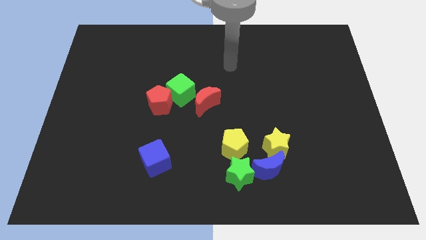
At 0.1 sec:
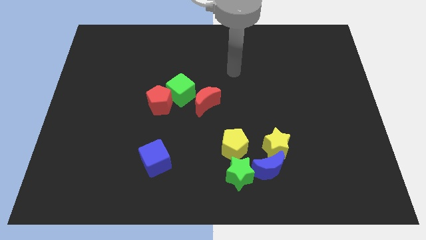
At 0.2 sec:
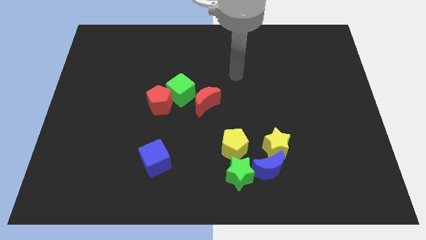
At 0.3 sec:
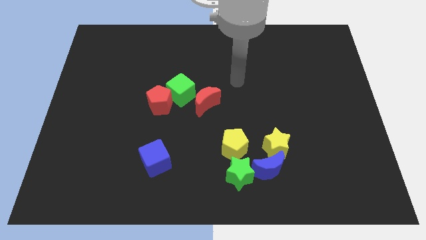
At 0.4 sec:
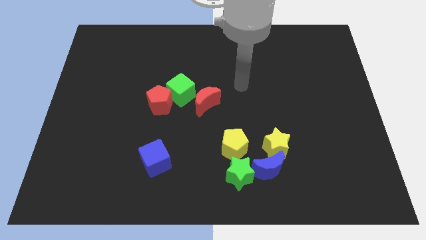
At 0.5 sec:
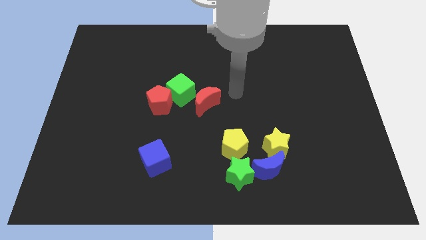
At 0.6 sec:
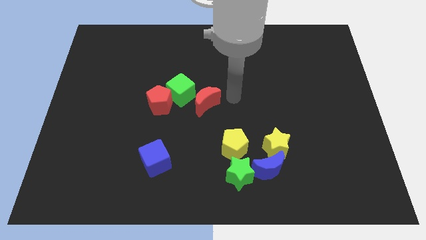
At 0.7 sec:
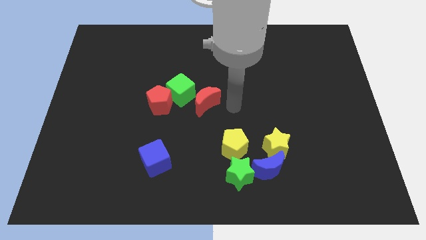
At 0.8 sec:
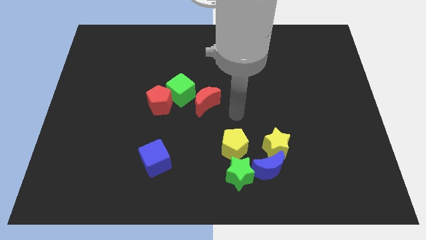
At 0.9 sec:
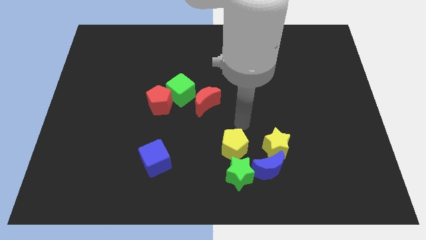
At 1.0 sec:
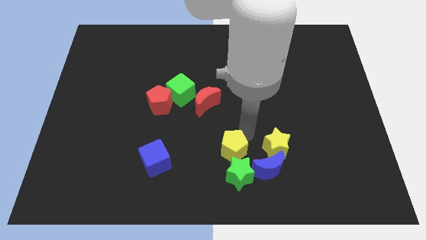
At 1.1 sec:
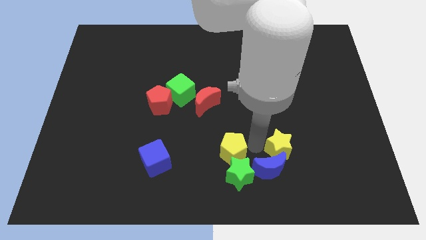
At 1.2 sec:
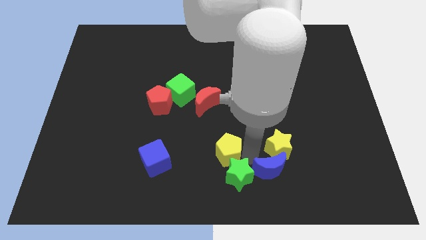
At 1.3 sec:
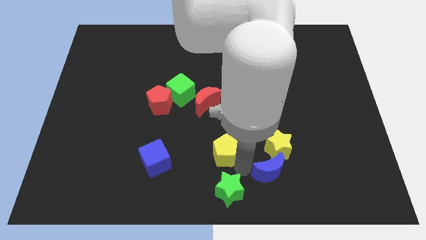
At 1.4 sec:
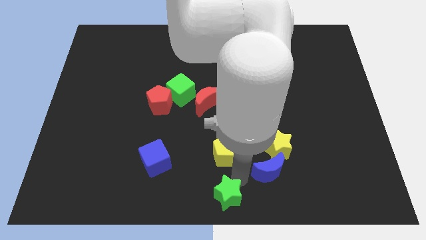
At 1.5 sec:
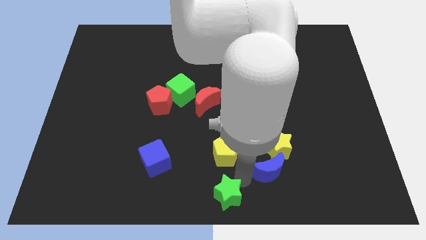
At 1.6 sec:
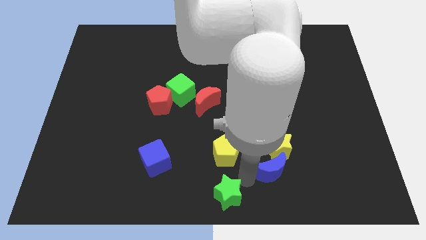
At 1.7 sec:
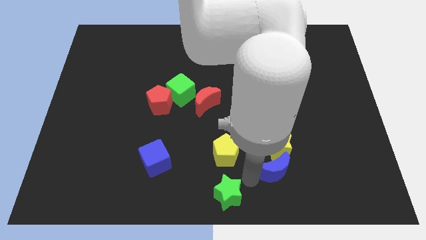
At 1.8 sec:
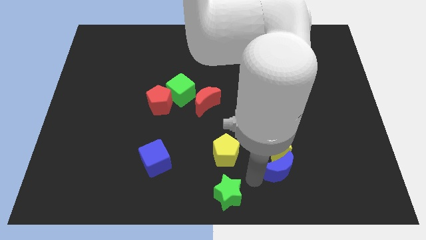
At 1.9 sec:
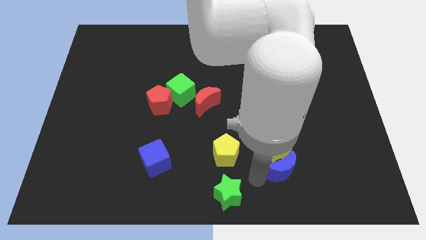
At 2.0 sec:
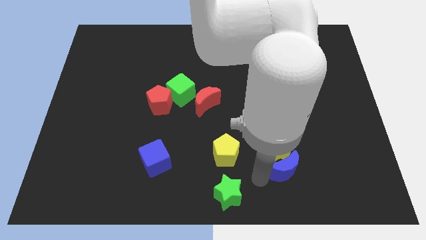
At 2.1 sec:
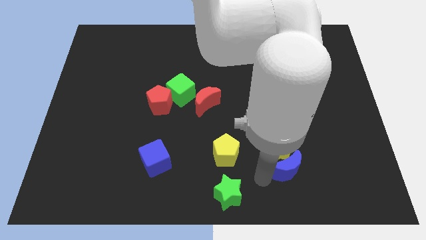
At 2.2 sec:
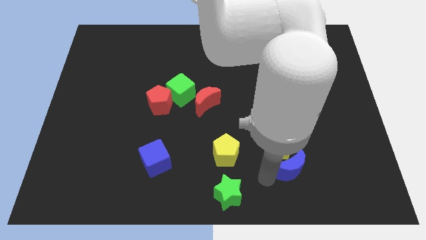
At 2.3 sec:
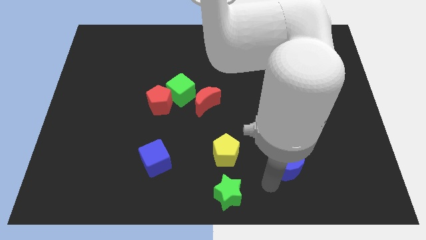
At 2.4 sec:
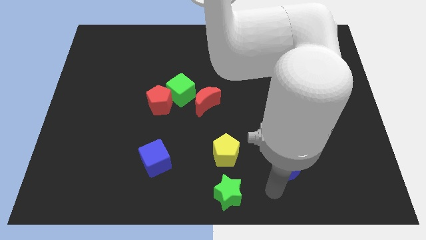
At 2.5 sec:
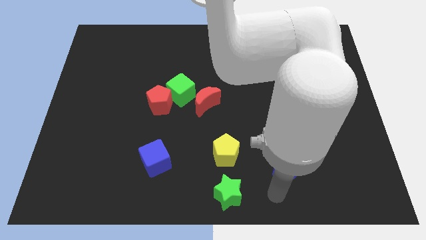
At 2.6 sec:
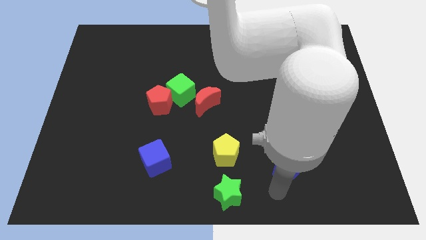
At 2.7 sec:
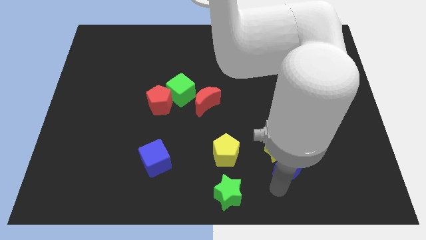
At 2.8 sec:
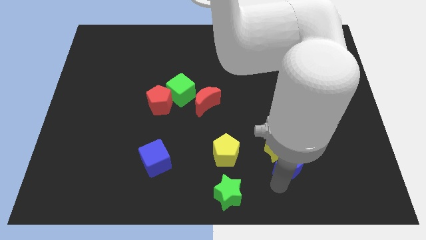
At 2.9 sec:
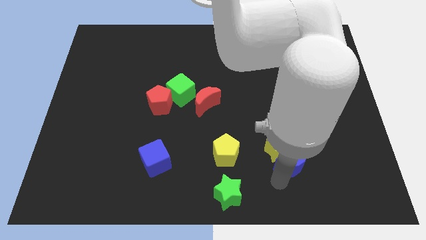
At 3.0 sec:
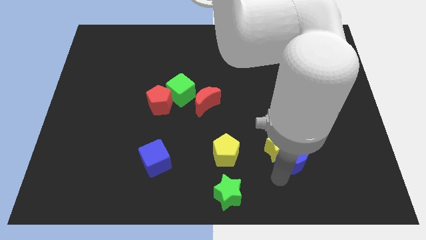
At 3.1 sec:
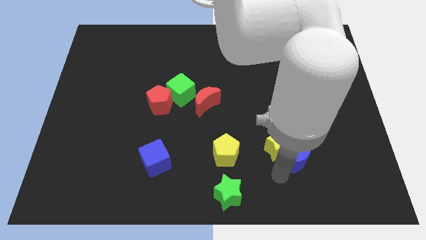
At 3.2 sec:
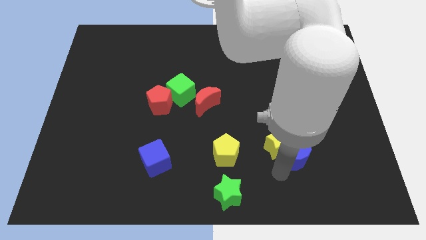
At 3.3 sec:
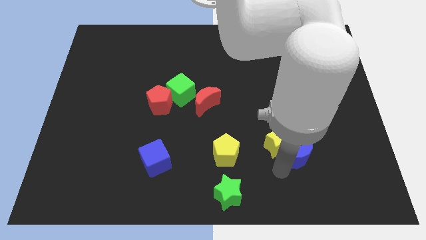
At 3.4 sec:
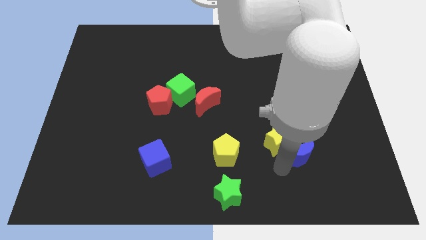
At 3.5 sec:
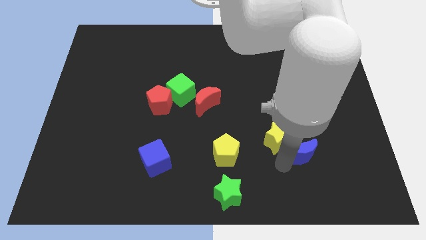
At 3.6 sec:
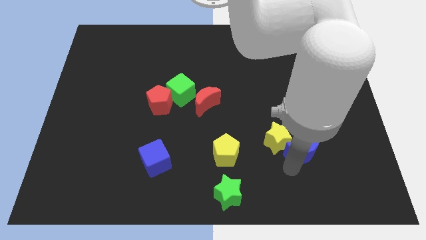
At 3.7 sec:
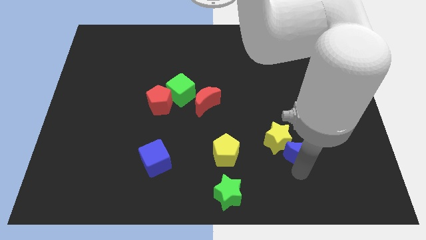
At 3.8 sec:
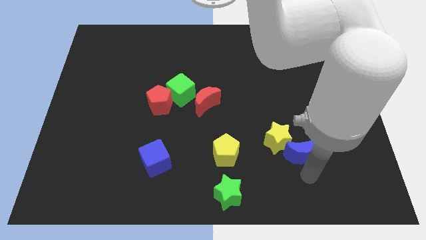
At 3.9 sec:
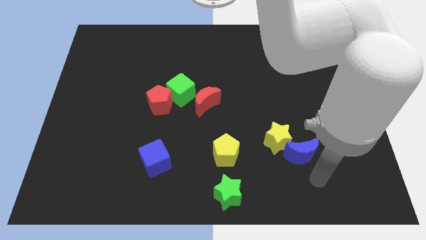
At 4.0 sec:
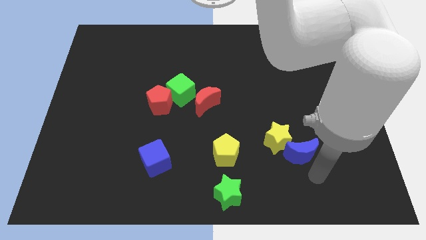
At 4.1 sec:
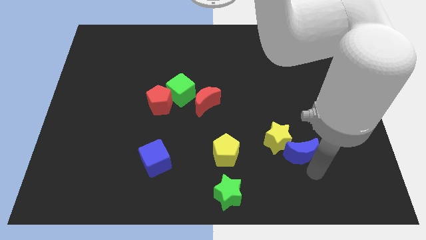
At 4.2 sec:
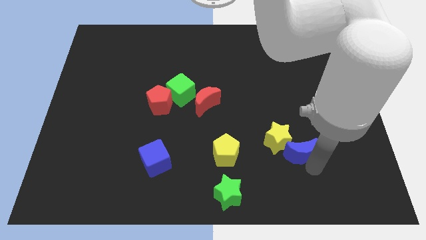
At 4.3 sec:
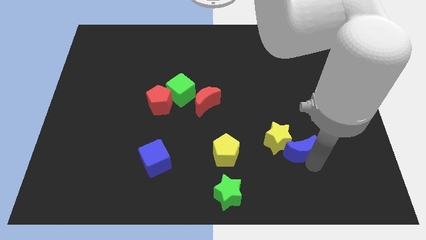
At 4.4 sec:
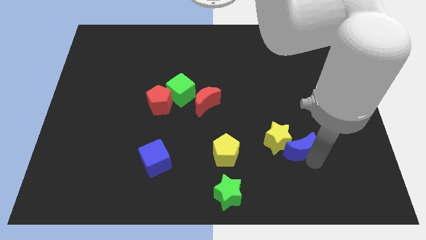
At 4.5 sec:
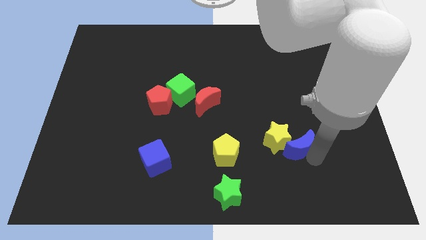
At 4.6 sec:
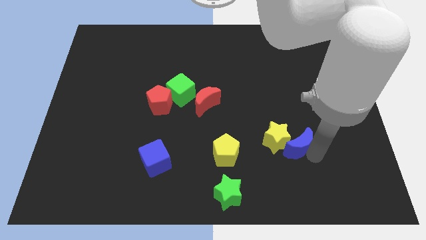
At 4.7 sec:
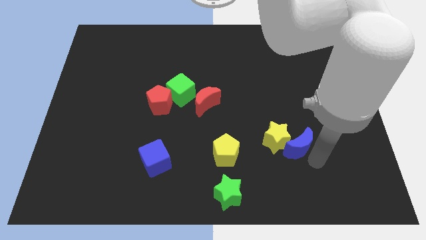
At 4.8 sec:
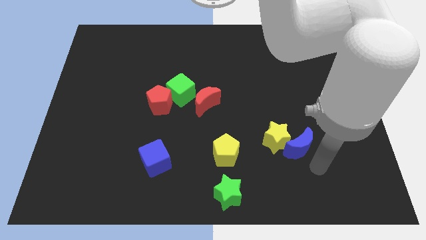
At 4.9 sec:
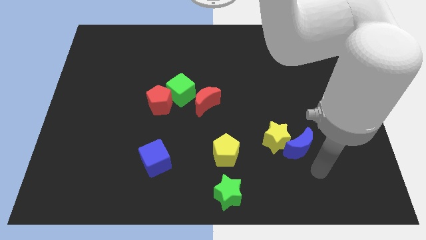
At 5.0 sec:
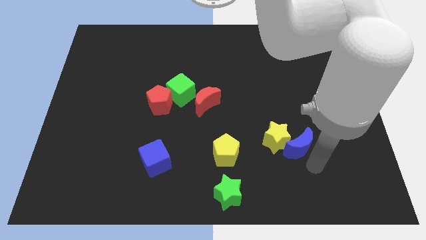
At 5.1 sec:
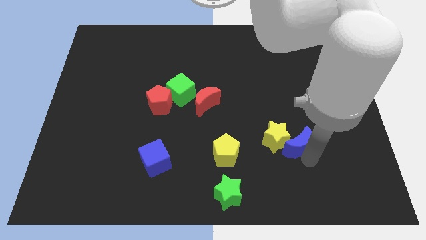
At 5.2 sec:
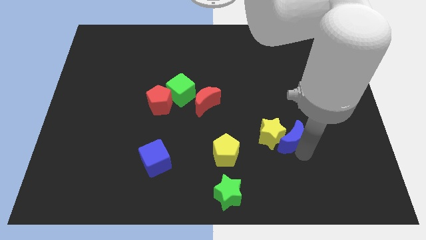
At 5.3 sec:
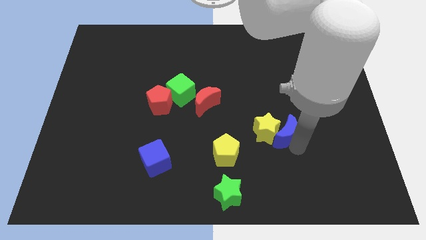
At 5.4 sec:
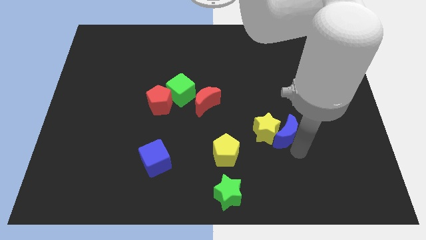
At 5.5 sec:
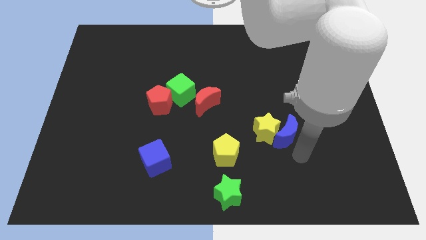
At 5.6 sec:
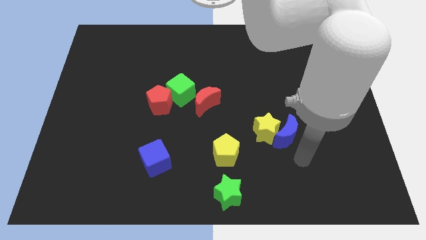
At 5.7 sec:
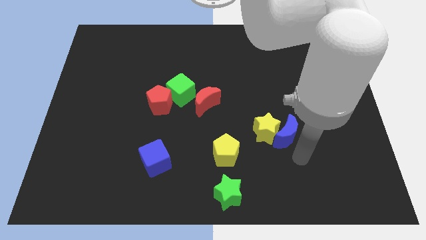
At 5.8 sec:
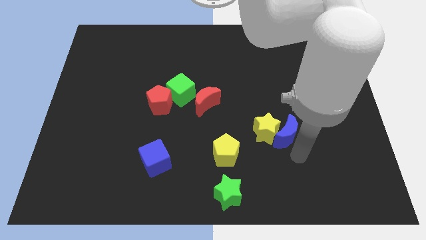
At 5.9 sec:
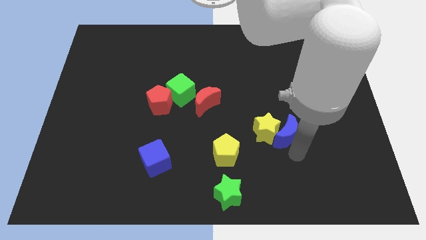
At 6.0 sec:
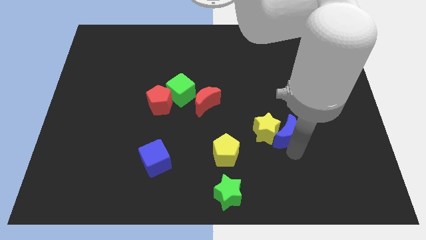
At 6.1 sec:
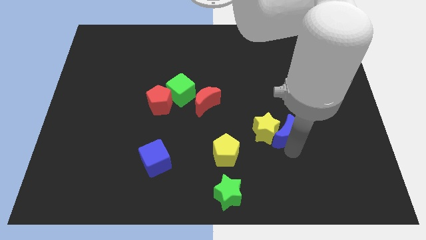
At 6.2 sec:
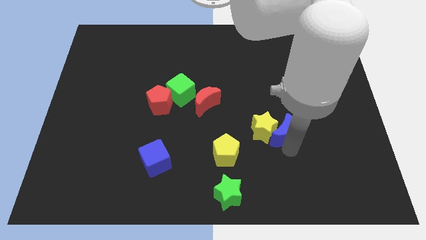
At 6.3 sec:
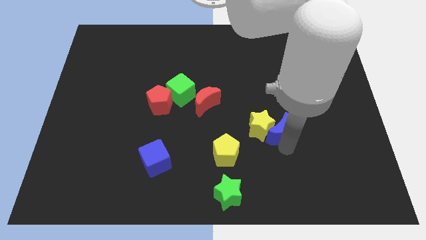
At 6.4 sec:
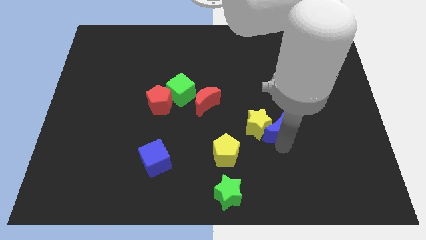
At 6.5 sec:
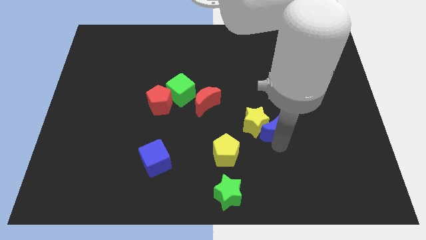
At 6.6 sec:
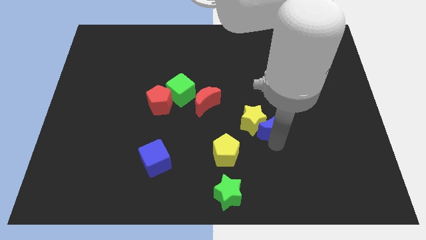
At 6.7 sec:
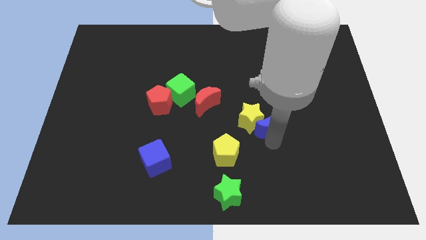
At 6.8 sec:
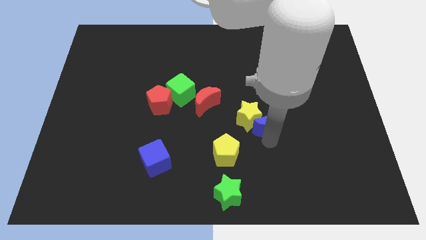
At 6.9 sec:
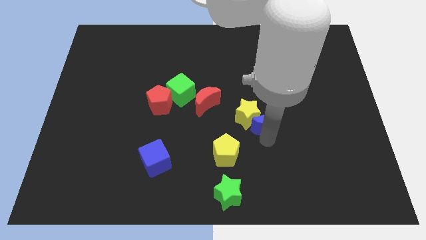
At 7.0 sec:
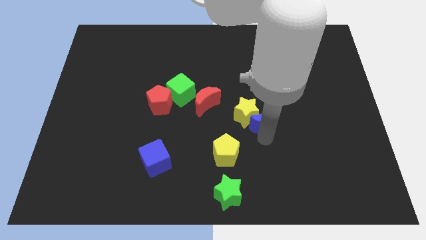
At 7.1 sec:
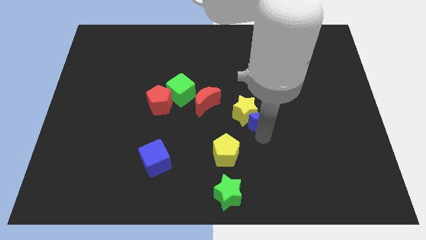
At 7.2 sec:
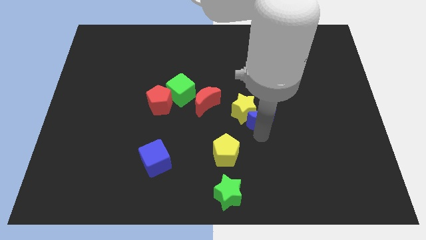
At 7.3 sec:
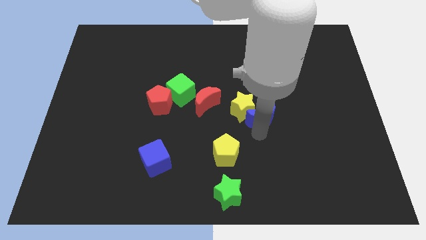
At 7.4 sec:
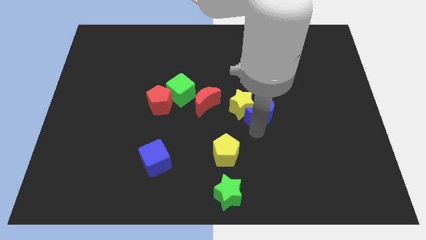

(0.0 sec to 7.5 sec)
move the blue moon to the right of the red moon
